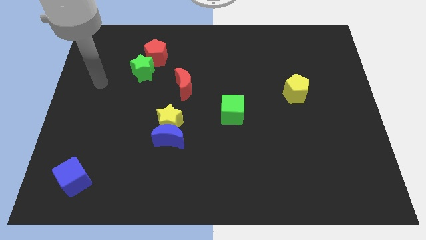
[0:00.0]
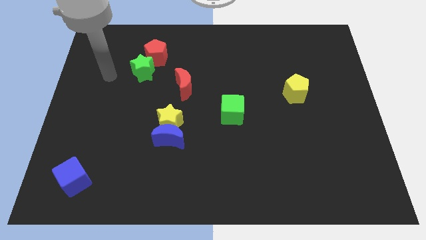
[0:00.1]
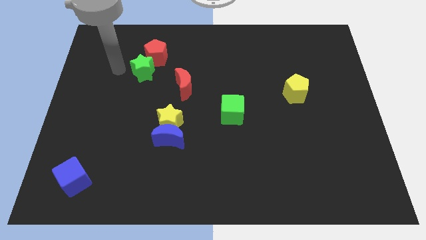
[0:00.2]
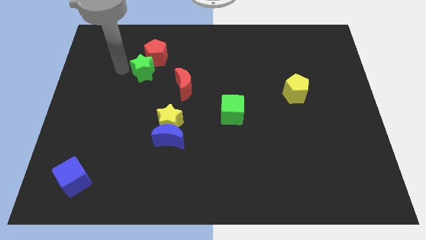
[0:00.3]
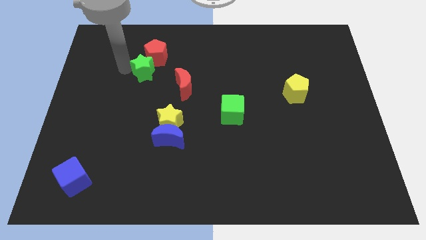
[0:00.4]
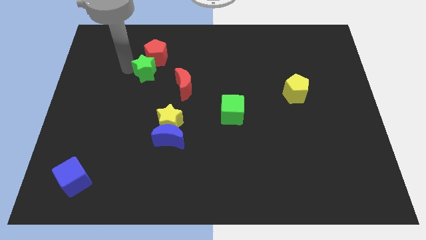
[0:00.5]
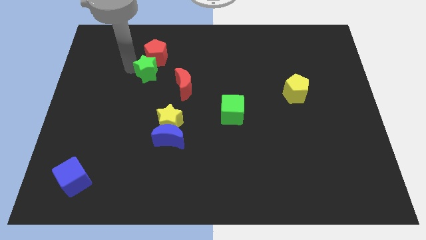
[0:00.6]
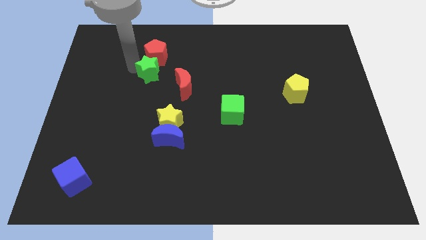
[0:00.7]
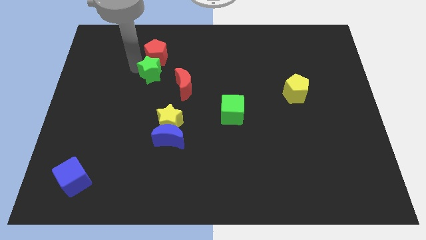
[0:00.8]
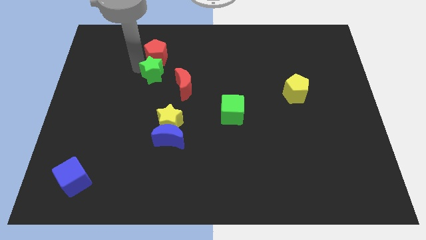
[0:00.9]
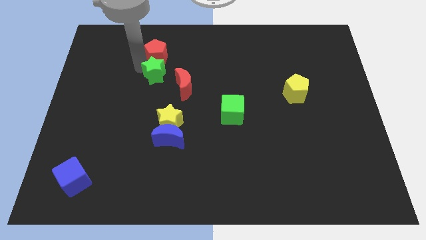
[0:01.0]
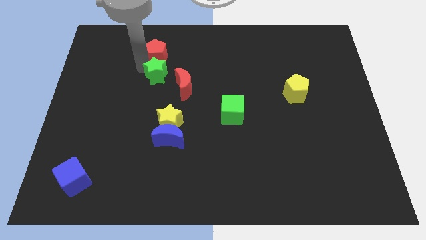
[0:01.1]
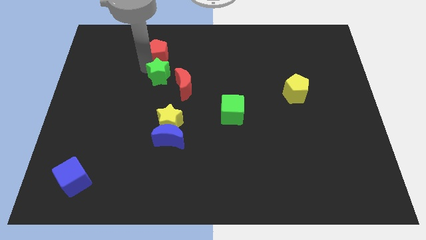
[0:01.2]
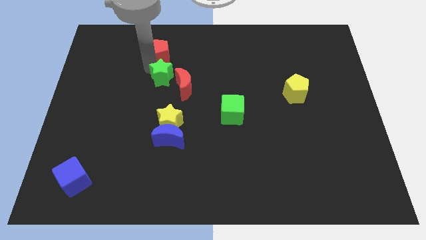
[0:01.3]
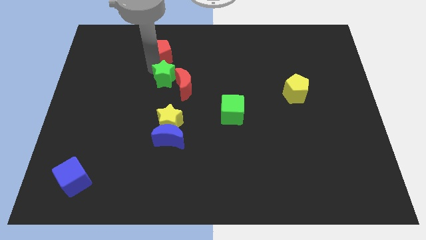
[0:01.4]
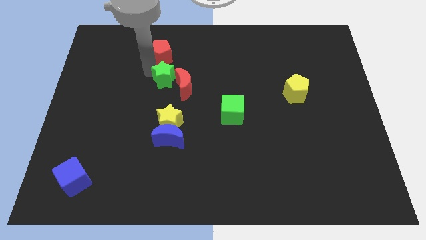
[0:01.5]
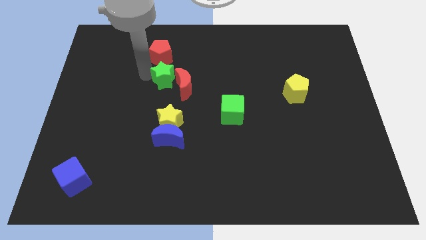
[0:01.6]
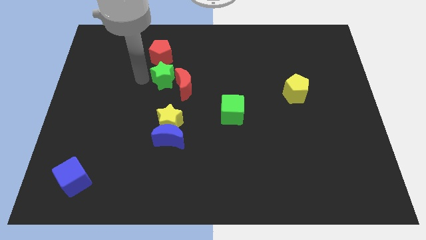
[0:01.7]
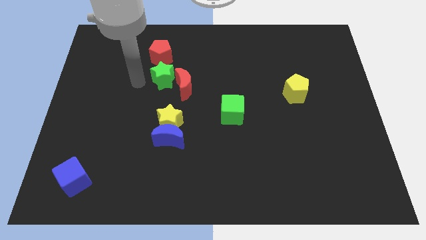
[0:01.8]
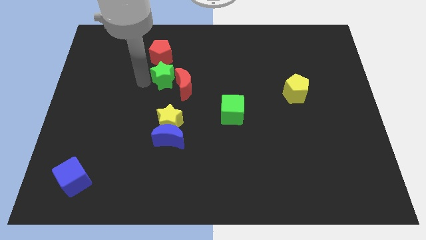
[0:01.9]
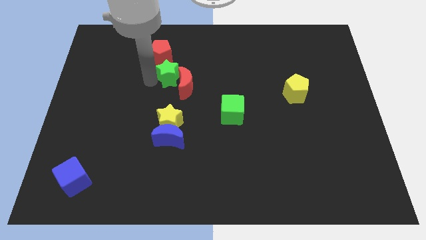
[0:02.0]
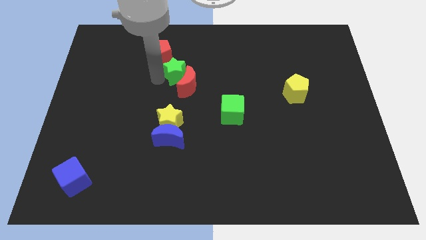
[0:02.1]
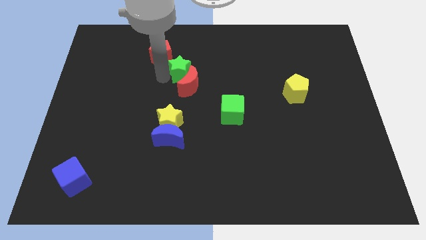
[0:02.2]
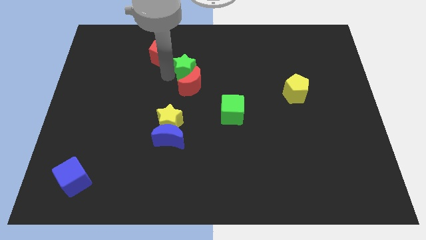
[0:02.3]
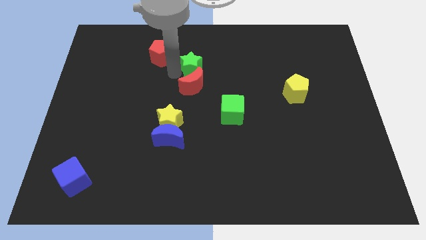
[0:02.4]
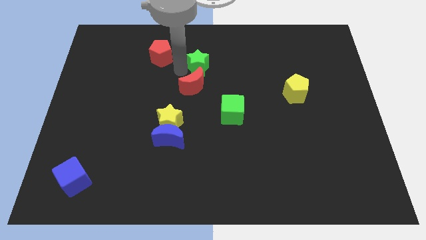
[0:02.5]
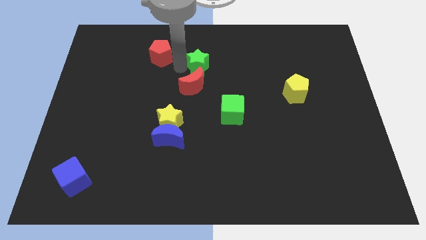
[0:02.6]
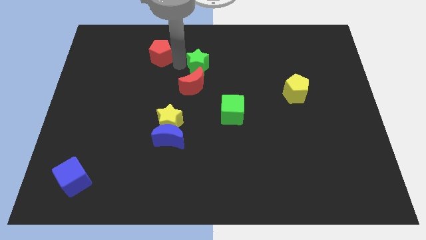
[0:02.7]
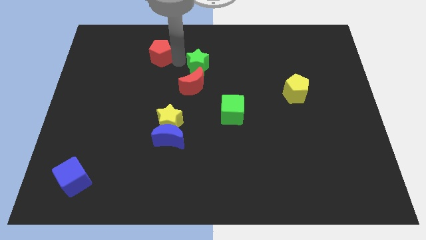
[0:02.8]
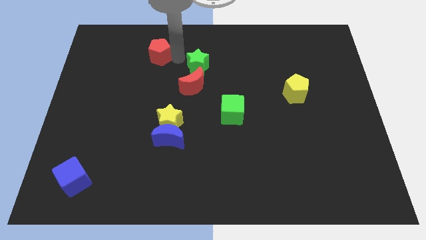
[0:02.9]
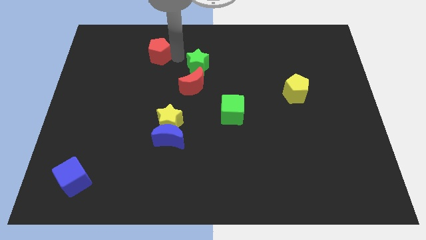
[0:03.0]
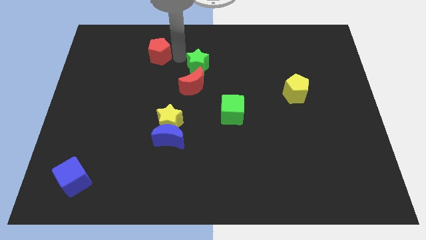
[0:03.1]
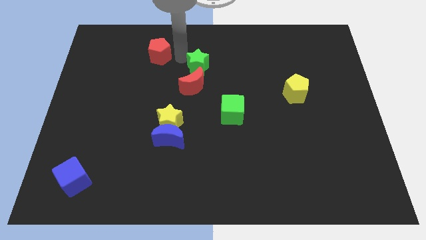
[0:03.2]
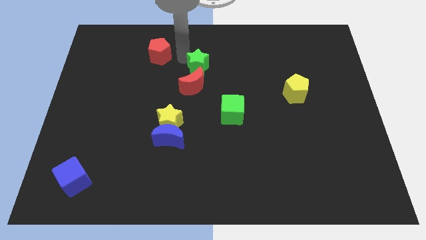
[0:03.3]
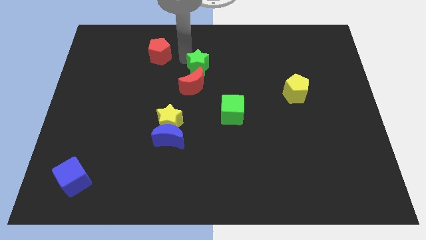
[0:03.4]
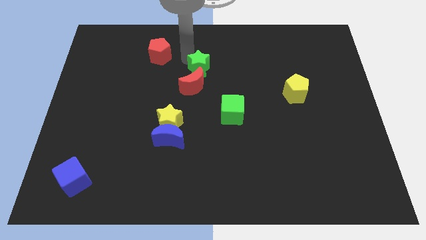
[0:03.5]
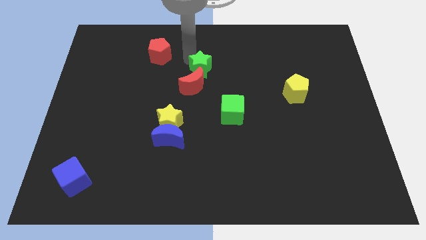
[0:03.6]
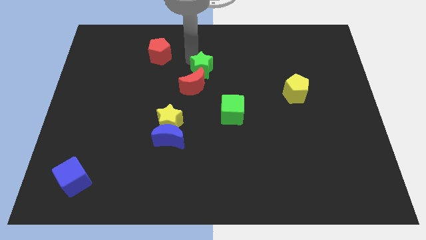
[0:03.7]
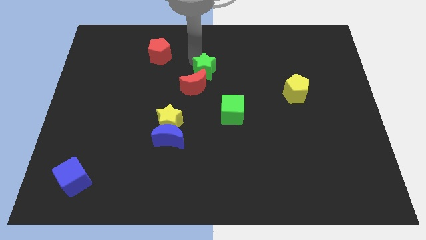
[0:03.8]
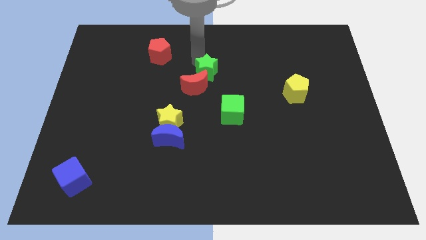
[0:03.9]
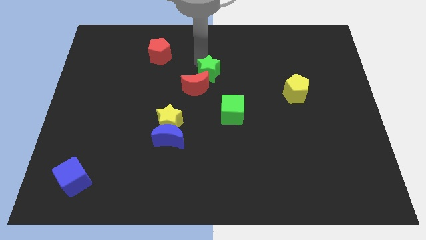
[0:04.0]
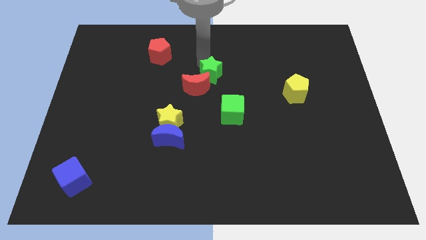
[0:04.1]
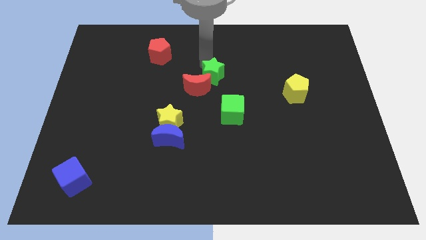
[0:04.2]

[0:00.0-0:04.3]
put the green star to the top side of the green cube

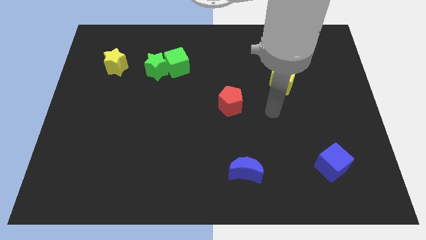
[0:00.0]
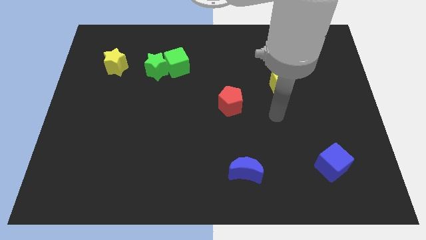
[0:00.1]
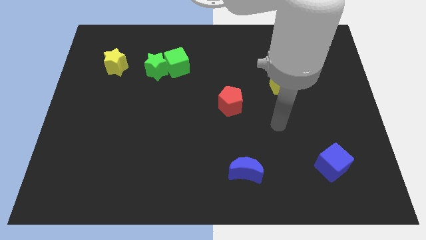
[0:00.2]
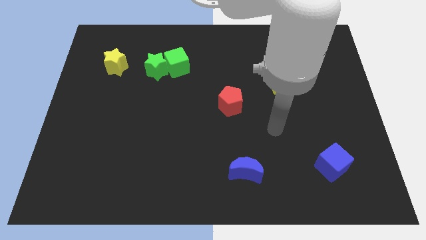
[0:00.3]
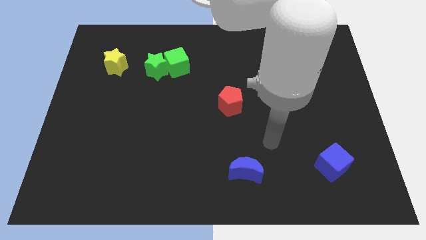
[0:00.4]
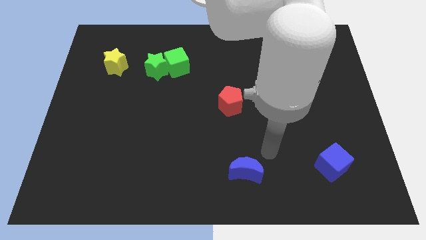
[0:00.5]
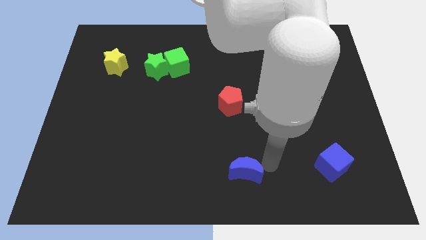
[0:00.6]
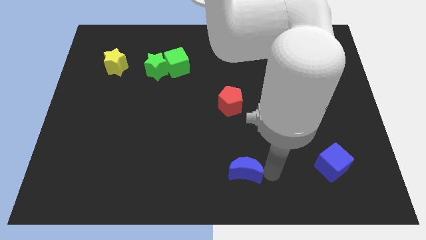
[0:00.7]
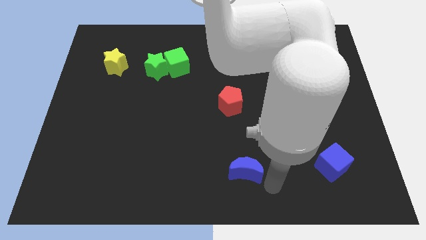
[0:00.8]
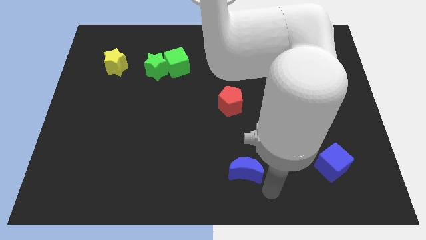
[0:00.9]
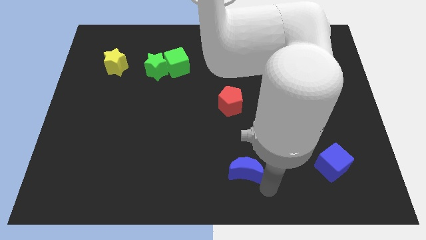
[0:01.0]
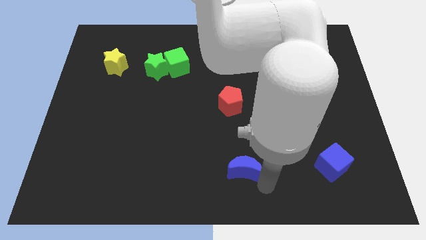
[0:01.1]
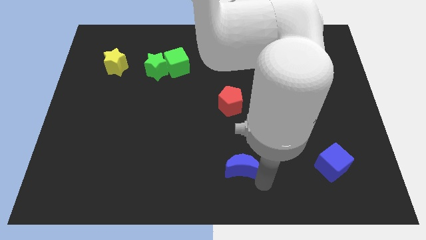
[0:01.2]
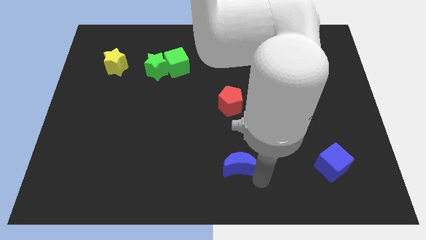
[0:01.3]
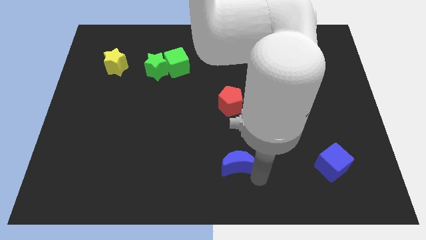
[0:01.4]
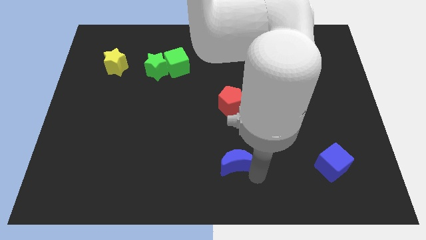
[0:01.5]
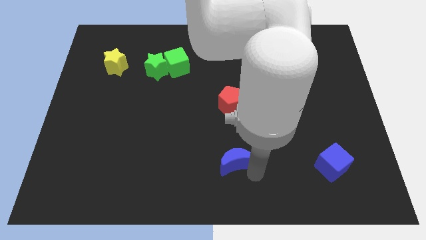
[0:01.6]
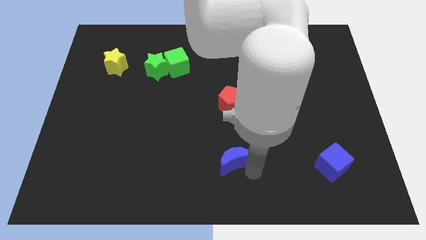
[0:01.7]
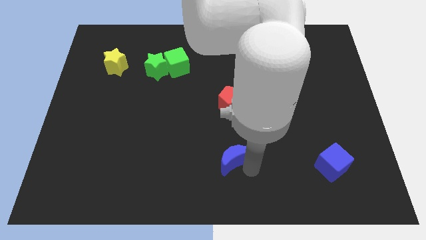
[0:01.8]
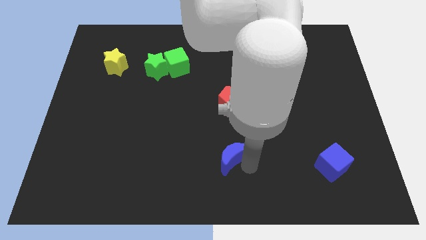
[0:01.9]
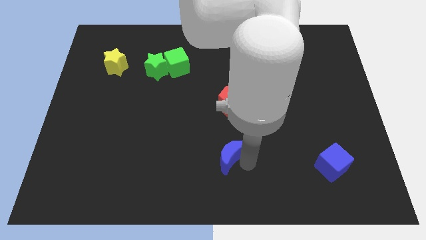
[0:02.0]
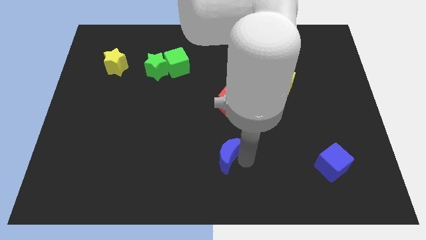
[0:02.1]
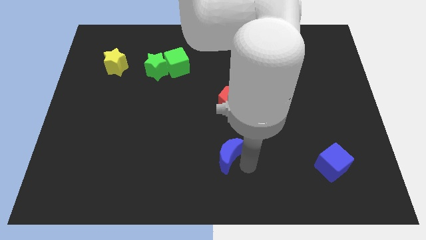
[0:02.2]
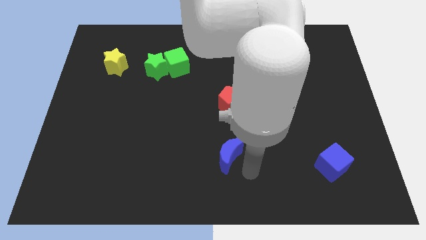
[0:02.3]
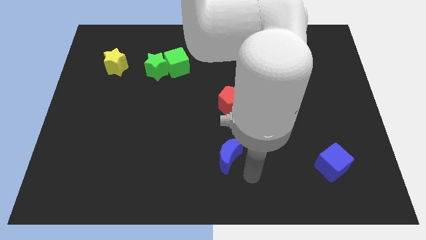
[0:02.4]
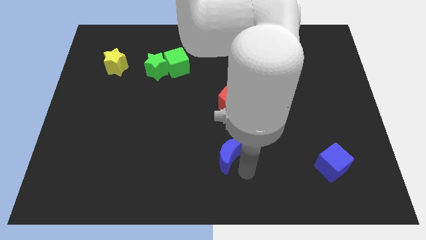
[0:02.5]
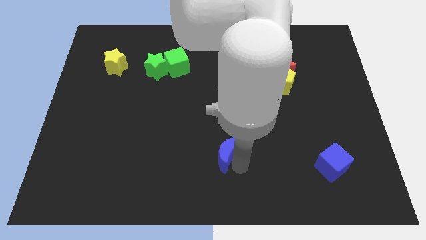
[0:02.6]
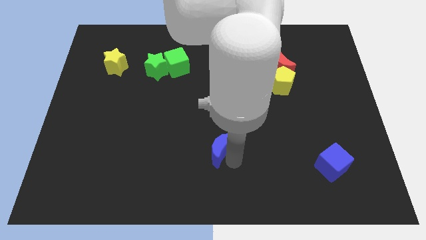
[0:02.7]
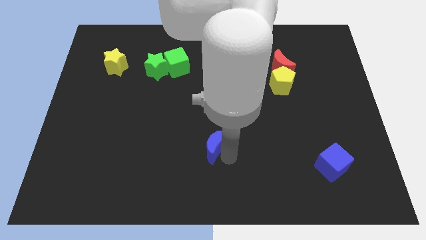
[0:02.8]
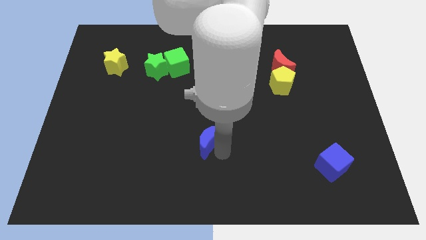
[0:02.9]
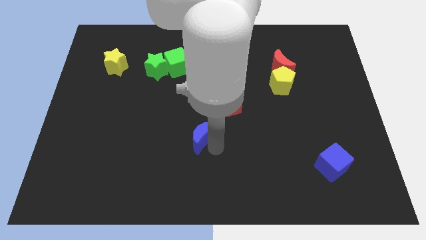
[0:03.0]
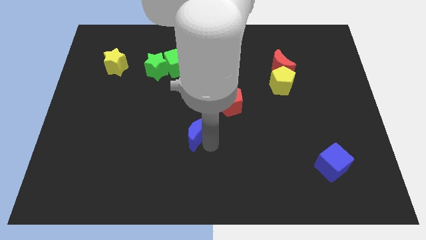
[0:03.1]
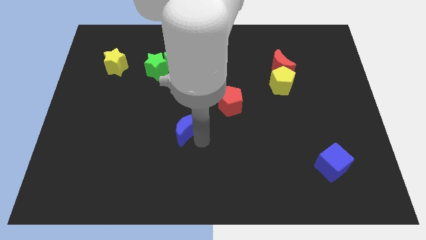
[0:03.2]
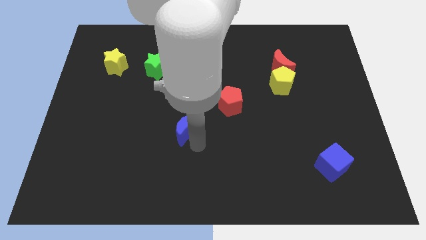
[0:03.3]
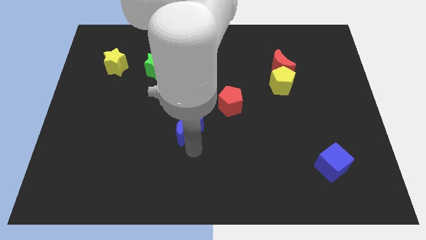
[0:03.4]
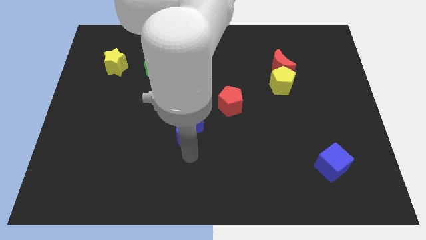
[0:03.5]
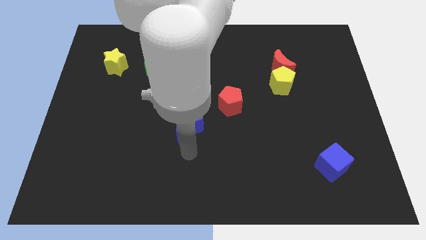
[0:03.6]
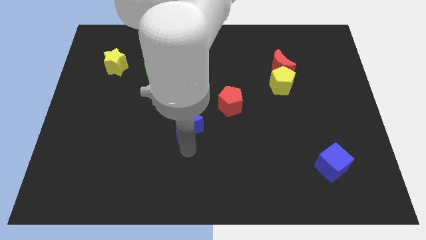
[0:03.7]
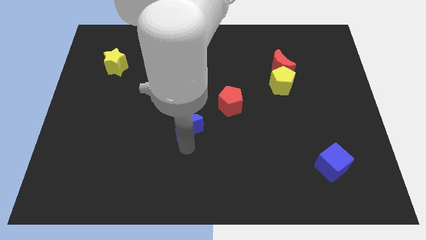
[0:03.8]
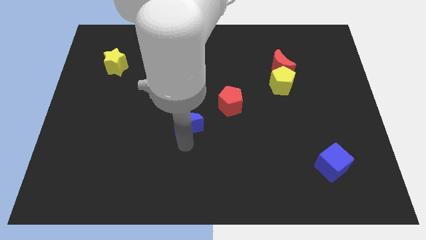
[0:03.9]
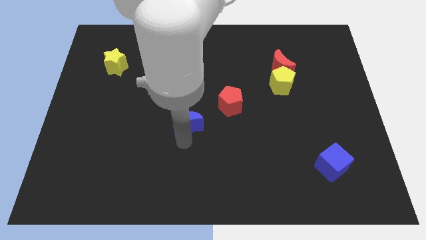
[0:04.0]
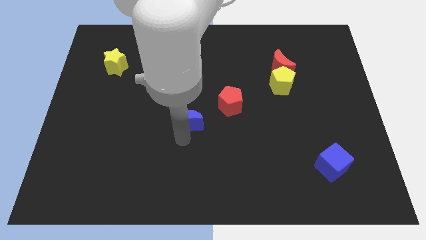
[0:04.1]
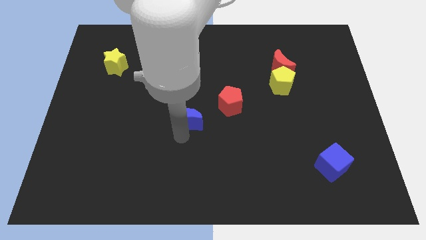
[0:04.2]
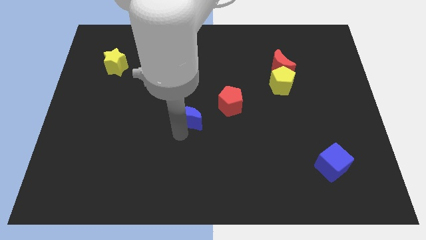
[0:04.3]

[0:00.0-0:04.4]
push the blue moon just left of the red pentagon
